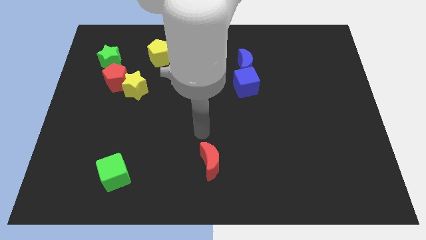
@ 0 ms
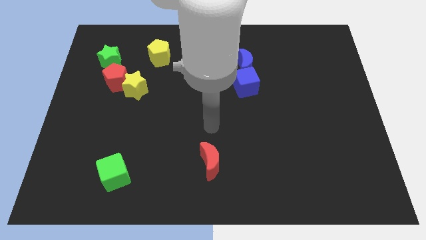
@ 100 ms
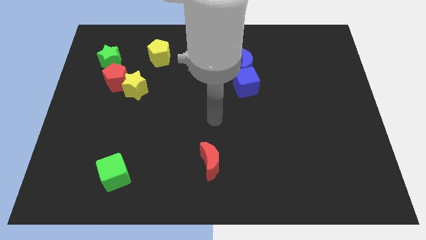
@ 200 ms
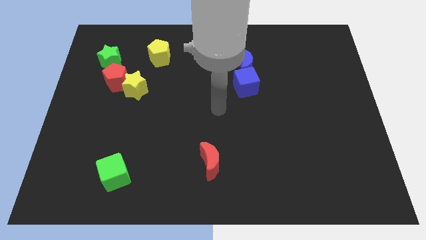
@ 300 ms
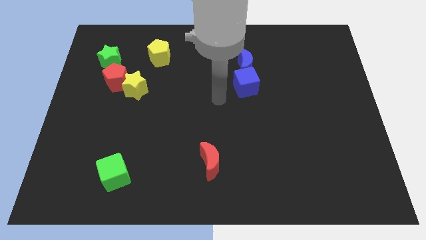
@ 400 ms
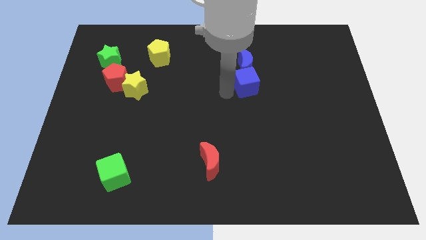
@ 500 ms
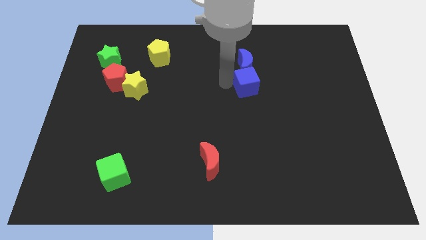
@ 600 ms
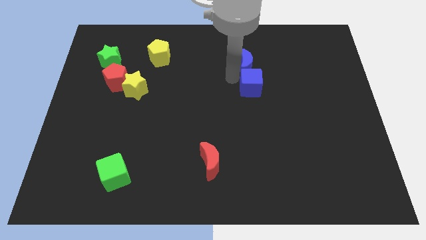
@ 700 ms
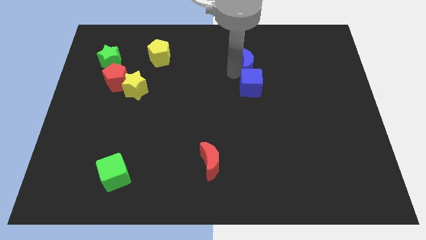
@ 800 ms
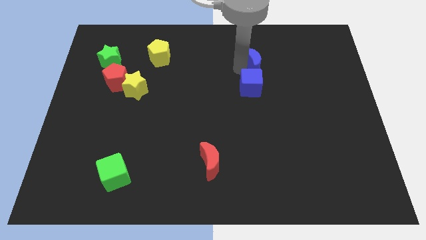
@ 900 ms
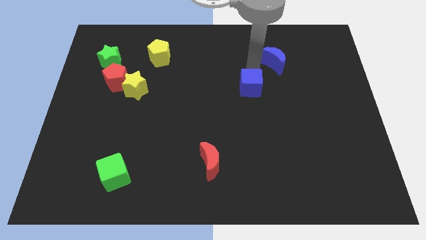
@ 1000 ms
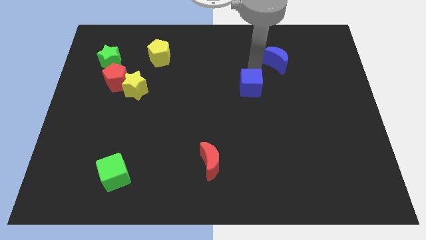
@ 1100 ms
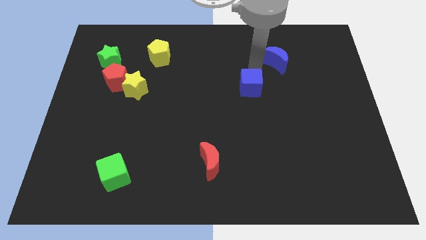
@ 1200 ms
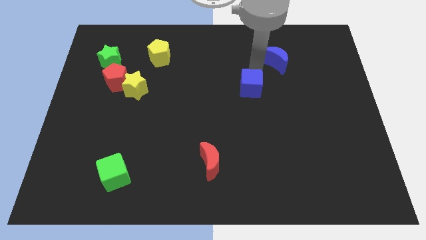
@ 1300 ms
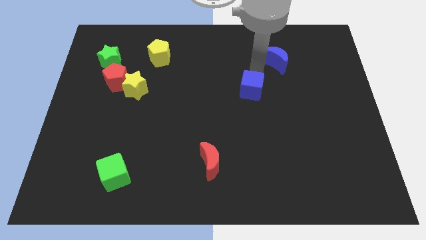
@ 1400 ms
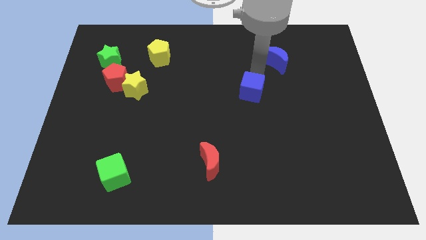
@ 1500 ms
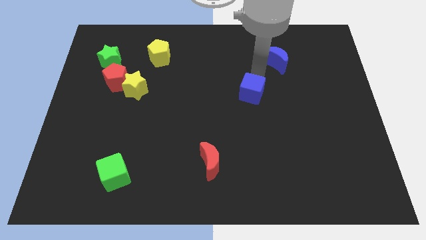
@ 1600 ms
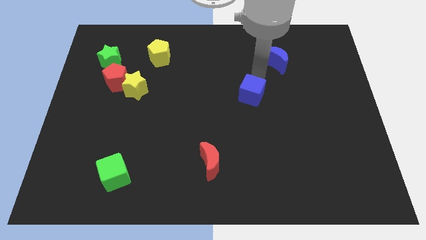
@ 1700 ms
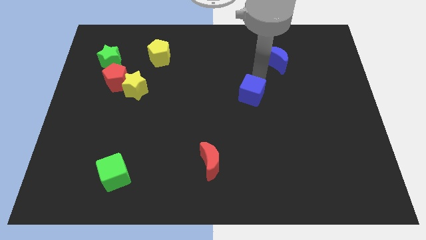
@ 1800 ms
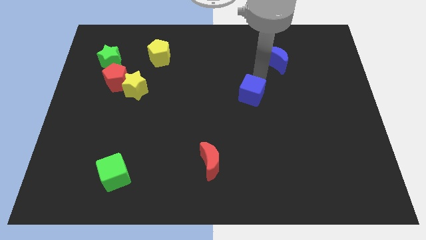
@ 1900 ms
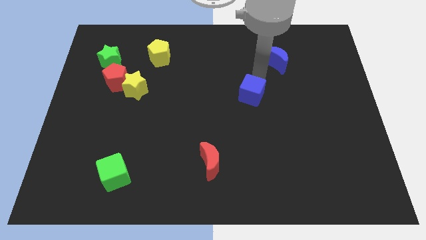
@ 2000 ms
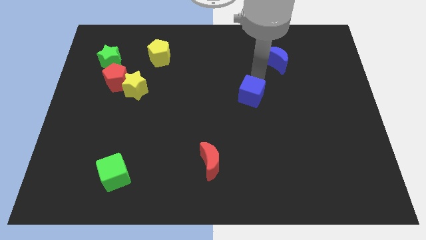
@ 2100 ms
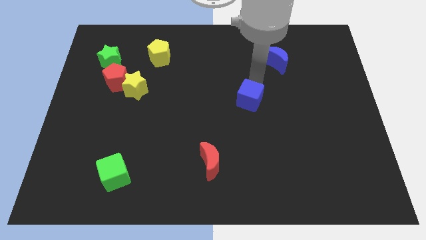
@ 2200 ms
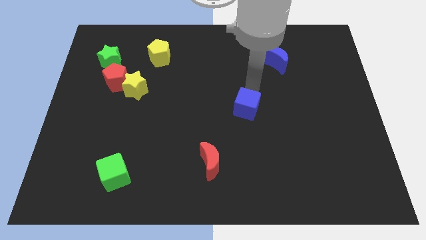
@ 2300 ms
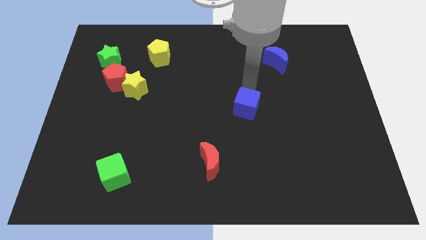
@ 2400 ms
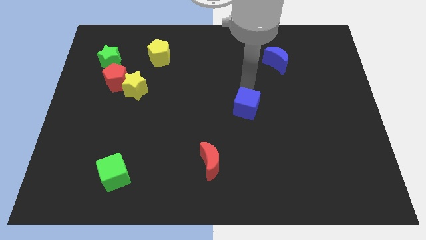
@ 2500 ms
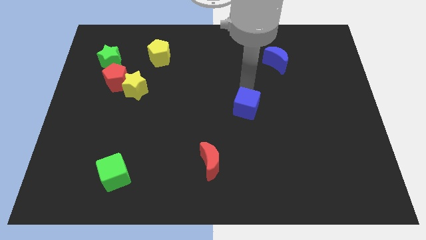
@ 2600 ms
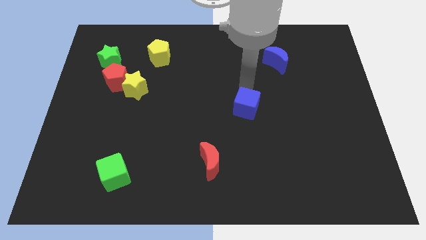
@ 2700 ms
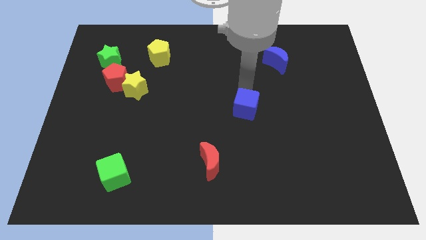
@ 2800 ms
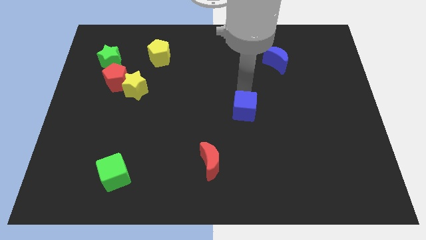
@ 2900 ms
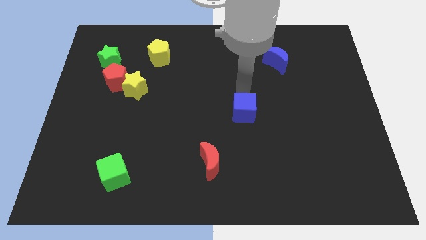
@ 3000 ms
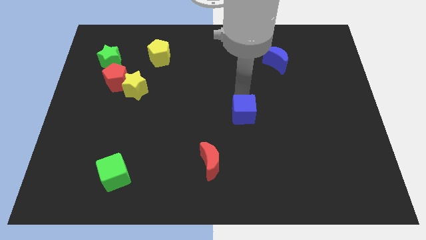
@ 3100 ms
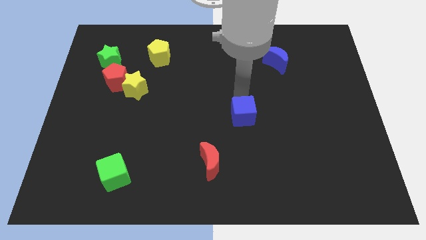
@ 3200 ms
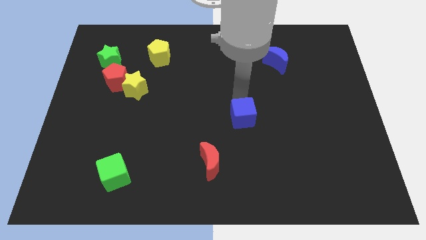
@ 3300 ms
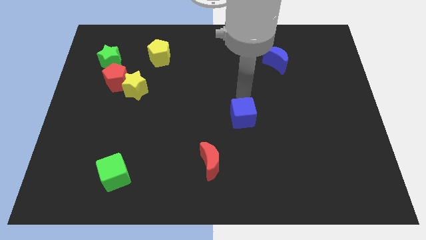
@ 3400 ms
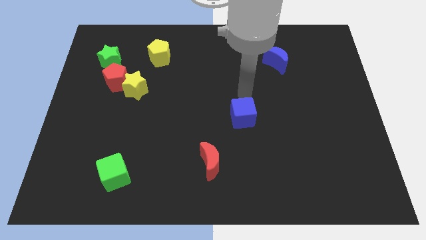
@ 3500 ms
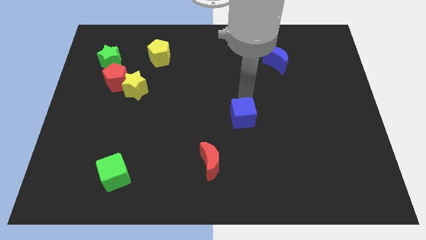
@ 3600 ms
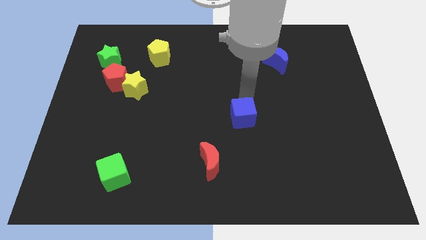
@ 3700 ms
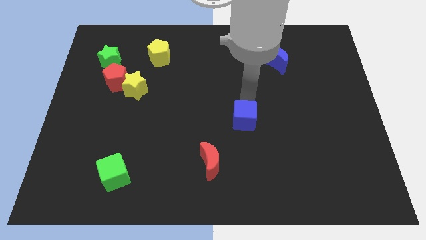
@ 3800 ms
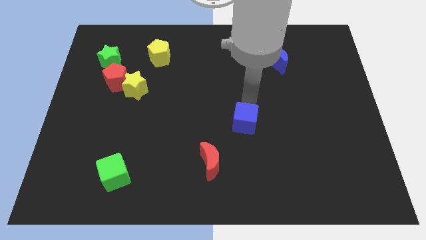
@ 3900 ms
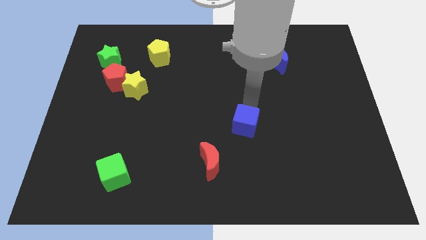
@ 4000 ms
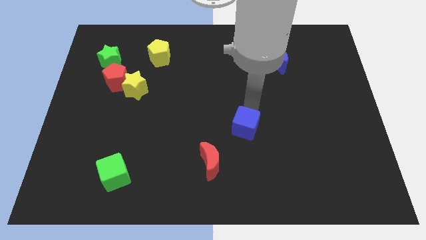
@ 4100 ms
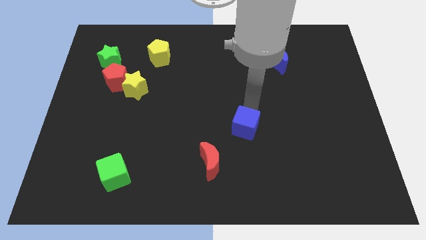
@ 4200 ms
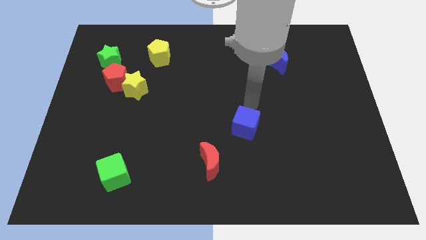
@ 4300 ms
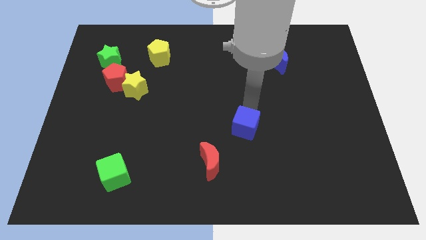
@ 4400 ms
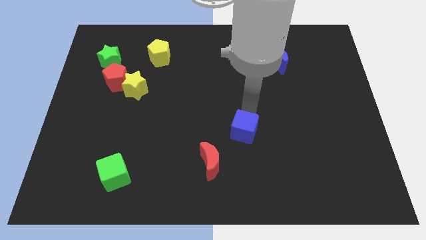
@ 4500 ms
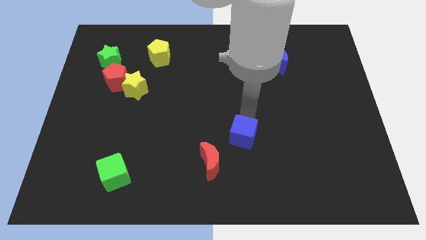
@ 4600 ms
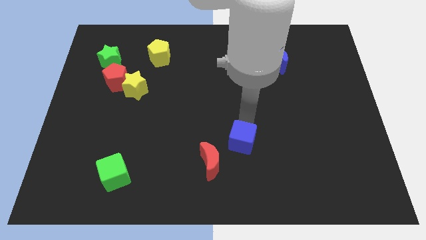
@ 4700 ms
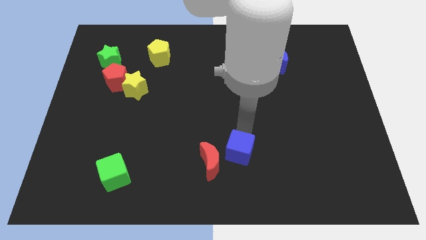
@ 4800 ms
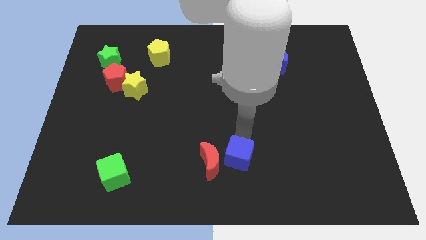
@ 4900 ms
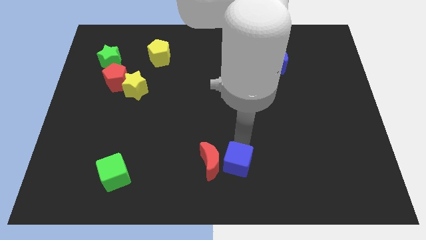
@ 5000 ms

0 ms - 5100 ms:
slide the blue cube to the bottom

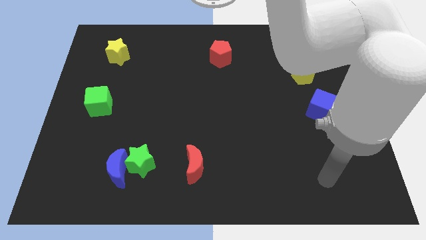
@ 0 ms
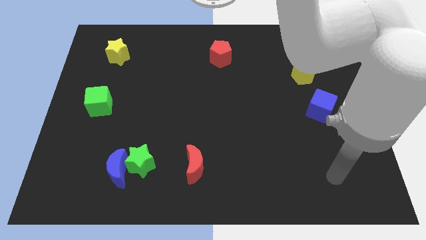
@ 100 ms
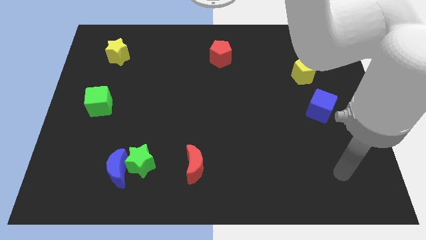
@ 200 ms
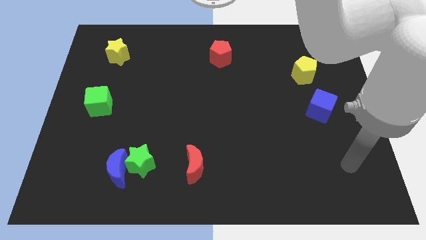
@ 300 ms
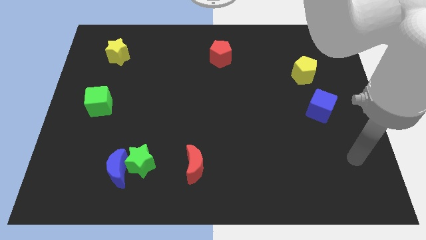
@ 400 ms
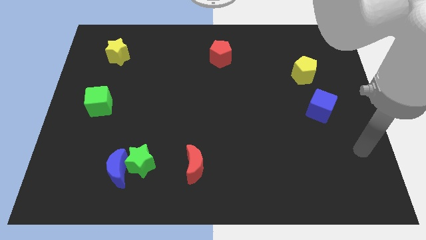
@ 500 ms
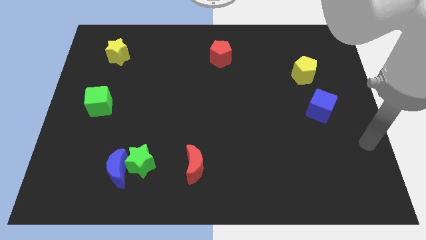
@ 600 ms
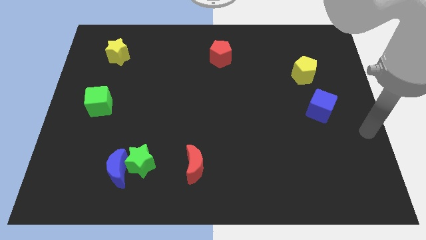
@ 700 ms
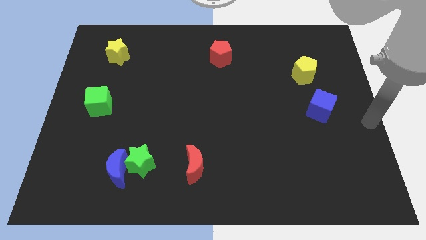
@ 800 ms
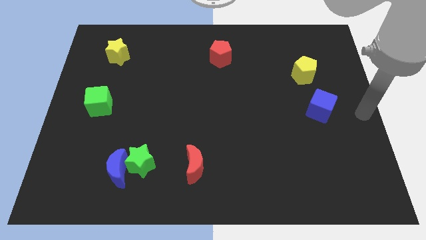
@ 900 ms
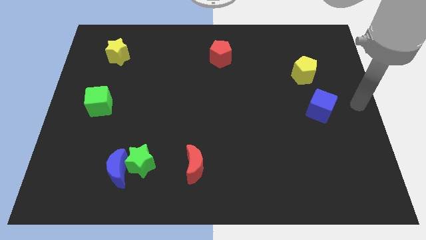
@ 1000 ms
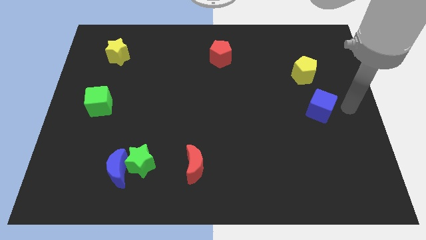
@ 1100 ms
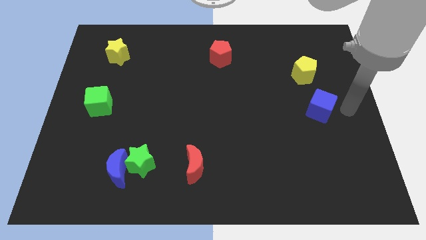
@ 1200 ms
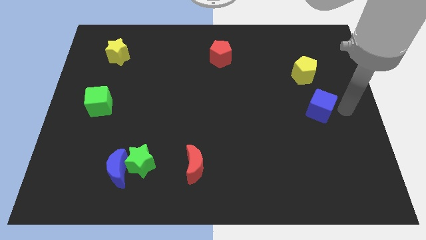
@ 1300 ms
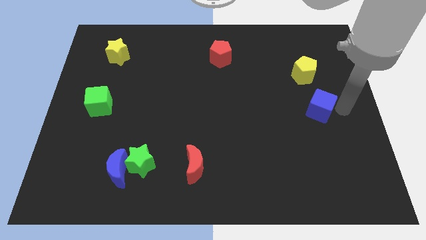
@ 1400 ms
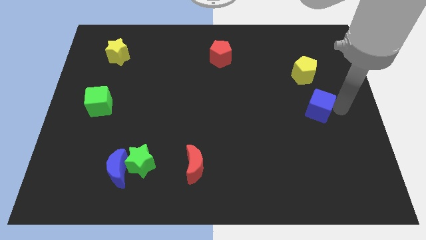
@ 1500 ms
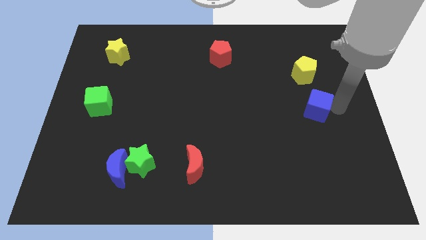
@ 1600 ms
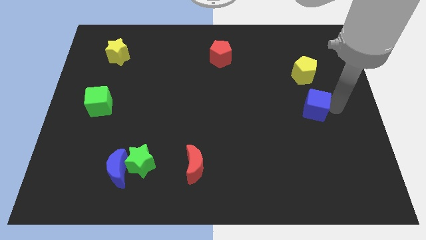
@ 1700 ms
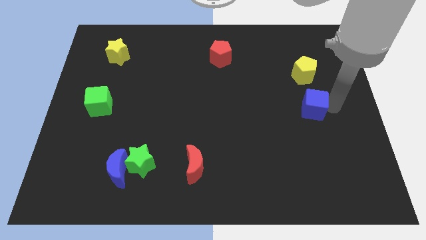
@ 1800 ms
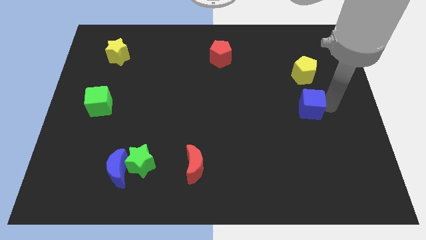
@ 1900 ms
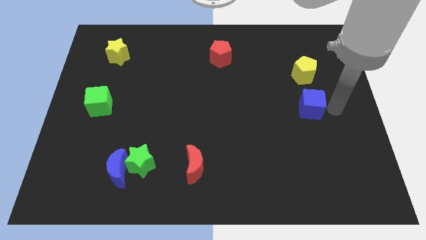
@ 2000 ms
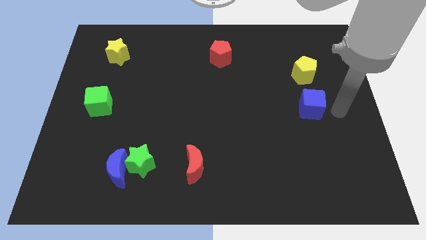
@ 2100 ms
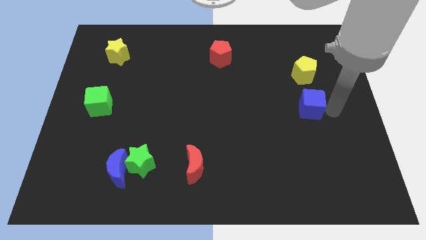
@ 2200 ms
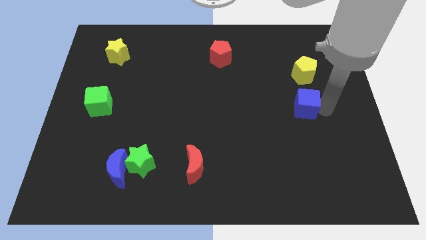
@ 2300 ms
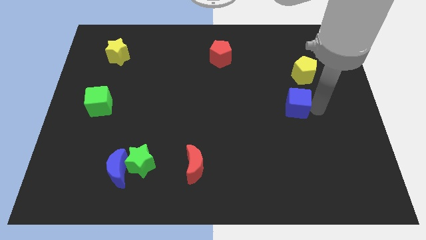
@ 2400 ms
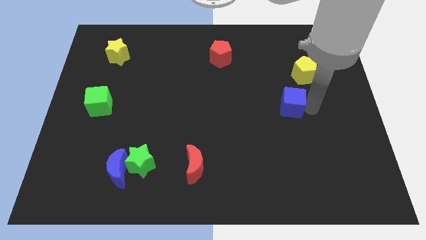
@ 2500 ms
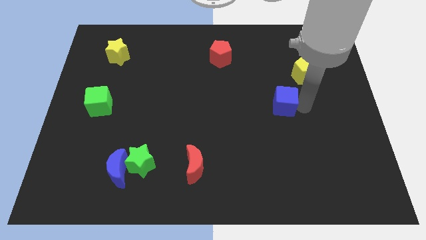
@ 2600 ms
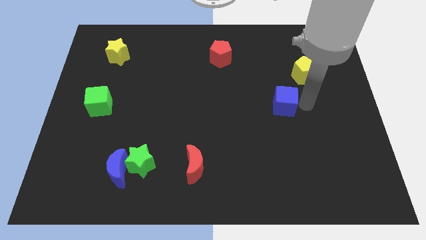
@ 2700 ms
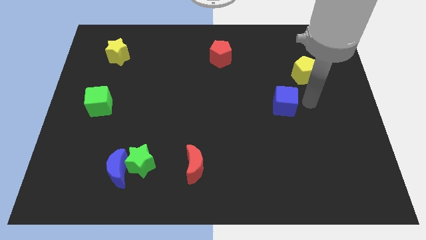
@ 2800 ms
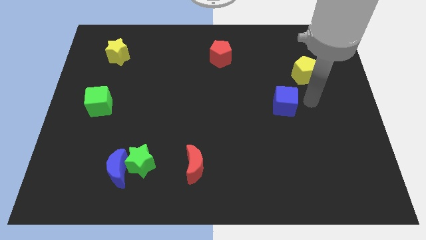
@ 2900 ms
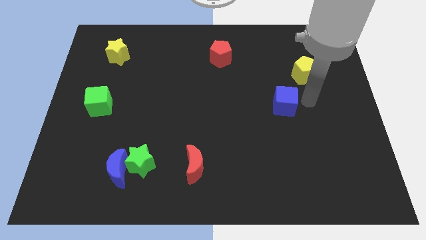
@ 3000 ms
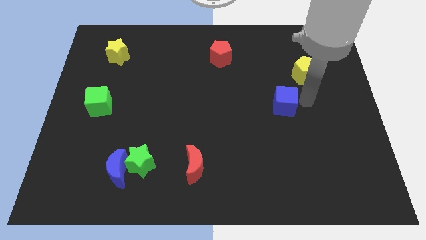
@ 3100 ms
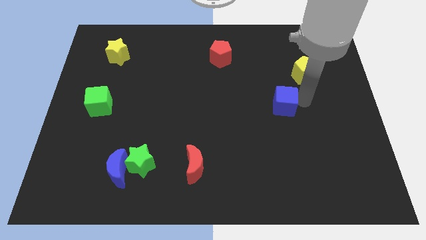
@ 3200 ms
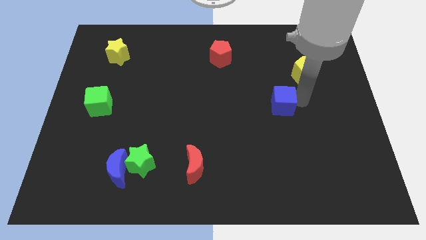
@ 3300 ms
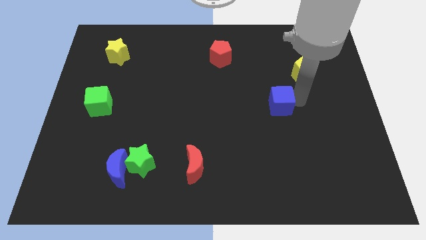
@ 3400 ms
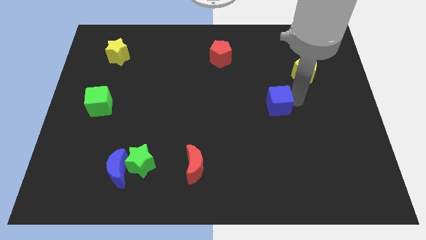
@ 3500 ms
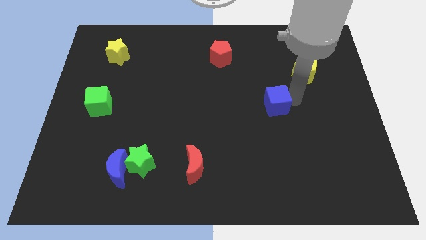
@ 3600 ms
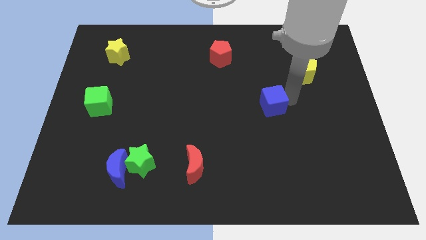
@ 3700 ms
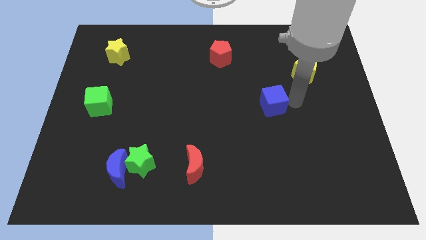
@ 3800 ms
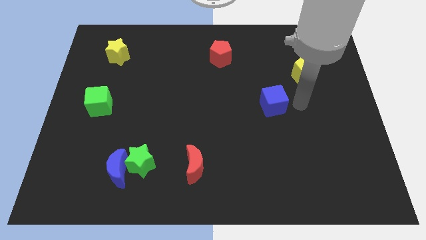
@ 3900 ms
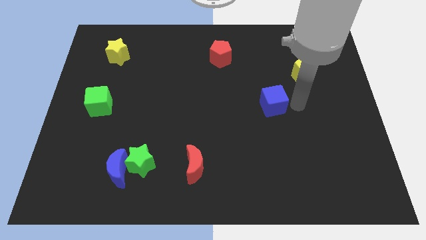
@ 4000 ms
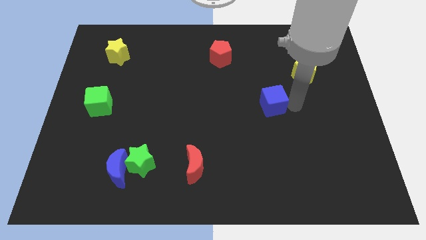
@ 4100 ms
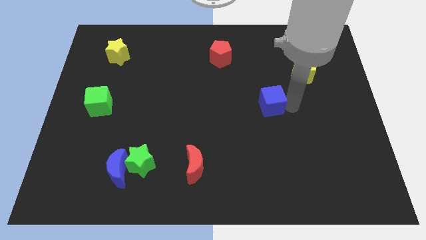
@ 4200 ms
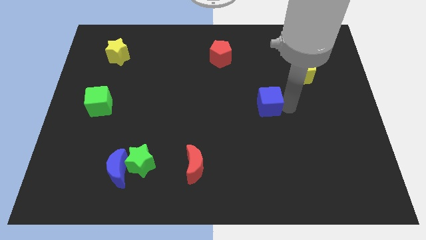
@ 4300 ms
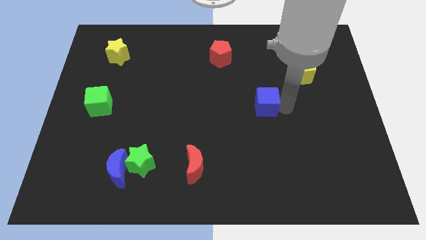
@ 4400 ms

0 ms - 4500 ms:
move the blue cube to the center of the board
